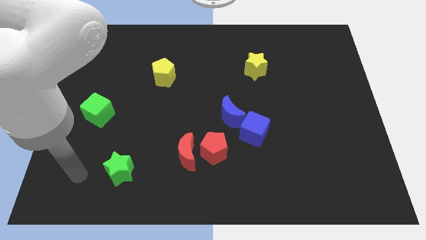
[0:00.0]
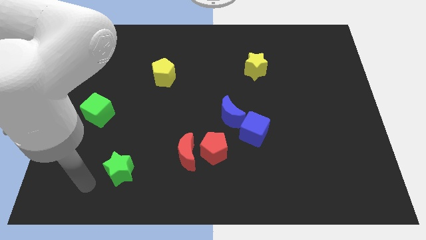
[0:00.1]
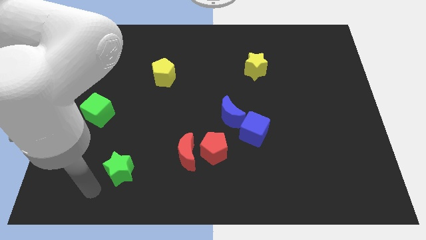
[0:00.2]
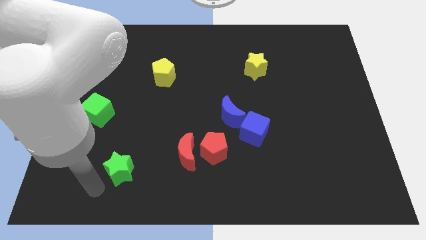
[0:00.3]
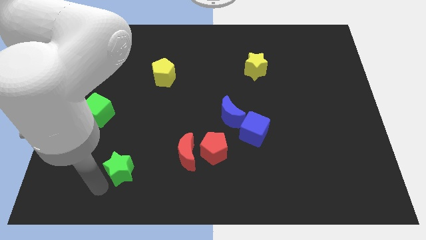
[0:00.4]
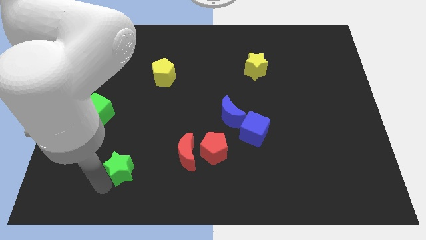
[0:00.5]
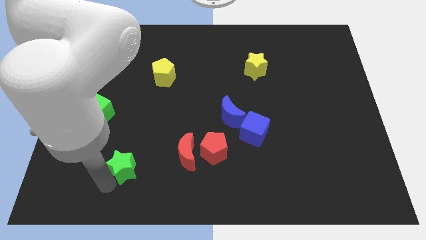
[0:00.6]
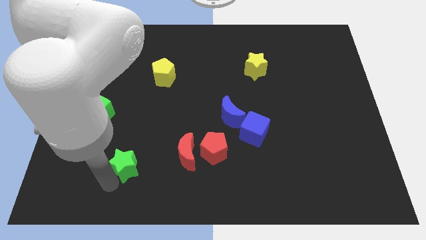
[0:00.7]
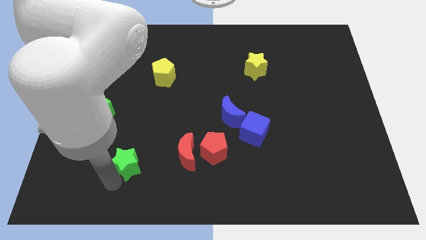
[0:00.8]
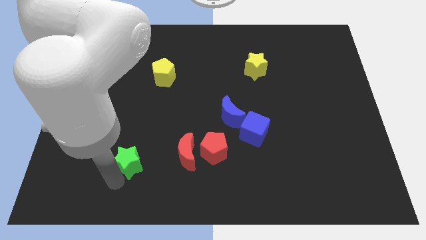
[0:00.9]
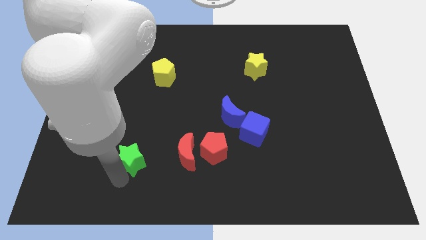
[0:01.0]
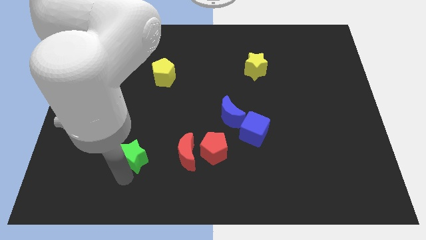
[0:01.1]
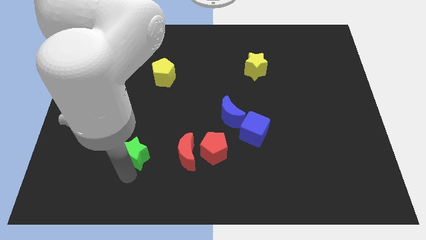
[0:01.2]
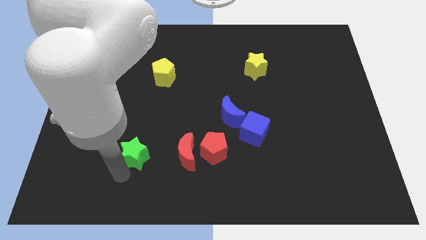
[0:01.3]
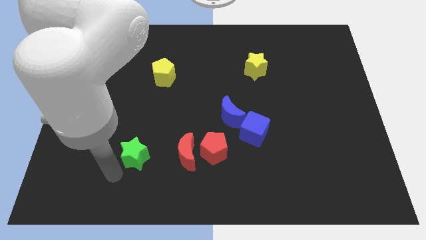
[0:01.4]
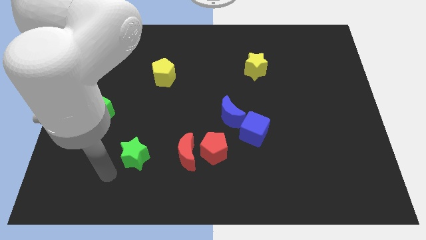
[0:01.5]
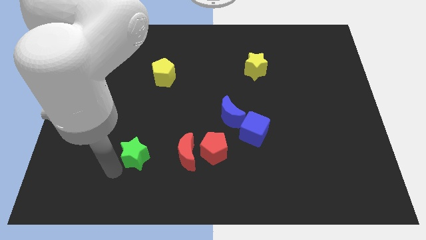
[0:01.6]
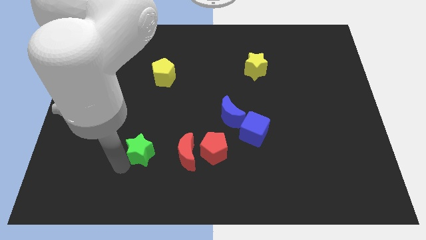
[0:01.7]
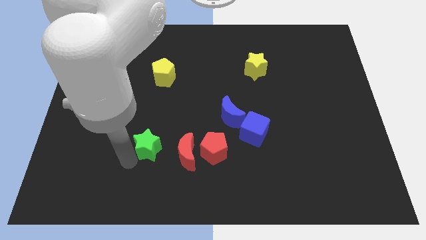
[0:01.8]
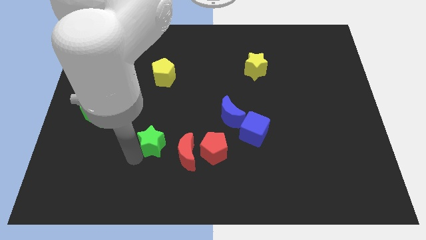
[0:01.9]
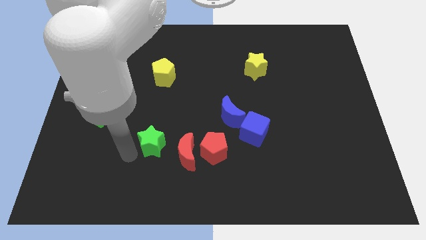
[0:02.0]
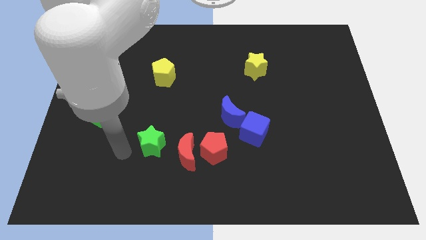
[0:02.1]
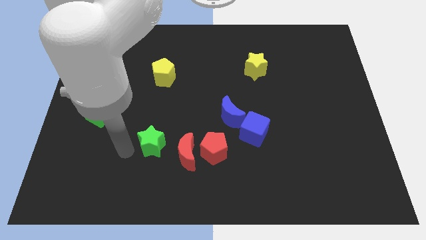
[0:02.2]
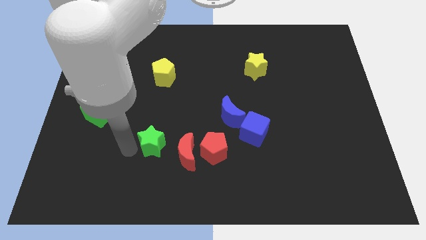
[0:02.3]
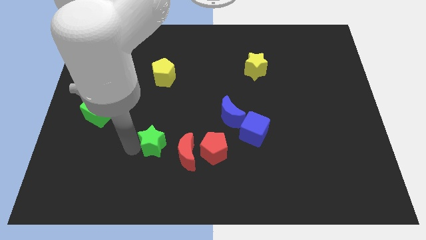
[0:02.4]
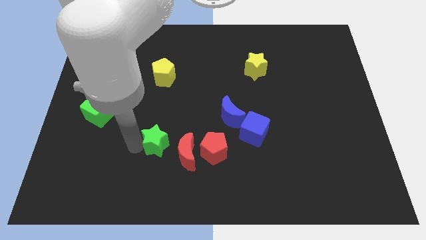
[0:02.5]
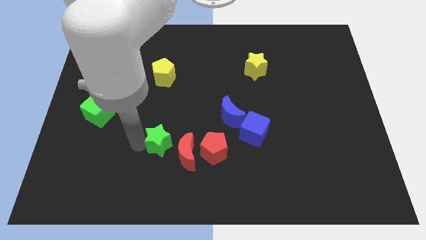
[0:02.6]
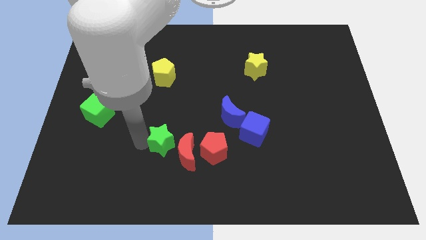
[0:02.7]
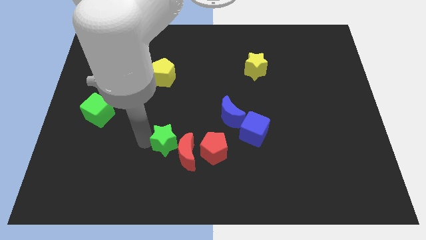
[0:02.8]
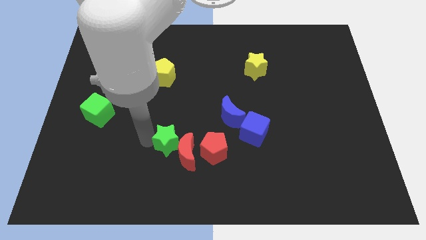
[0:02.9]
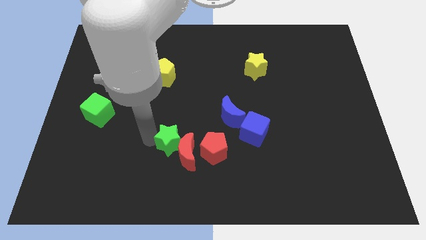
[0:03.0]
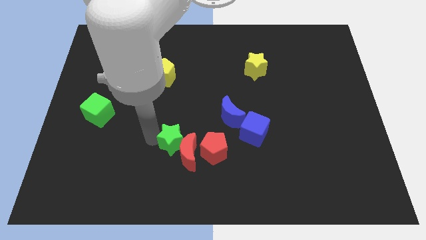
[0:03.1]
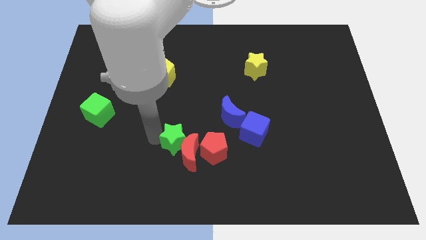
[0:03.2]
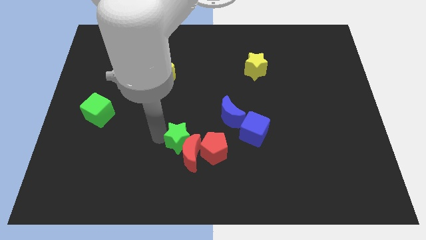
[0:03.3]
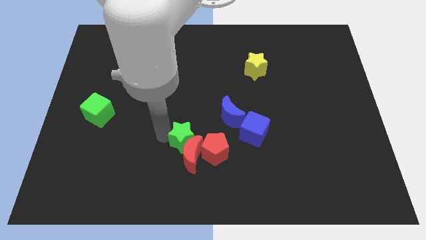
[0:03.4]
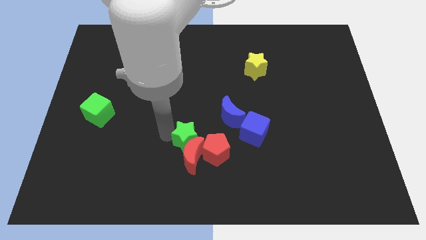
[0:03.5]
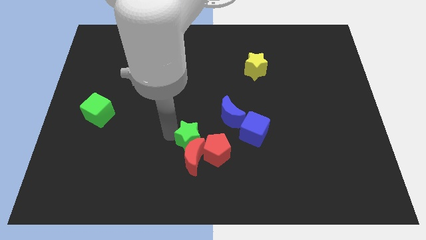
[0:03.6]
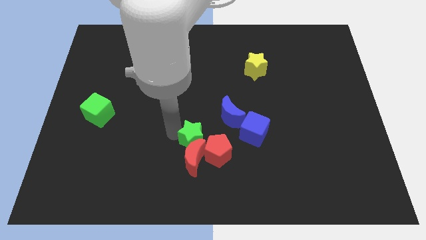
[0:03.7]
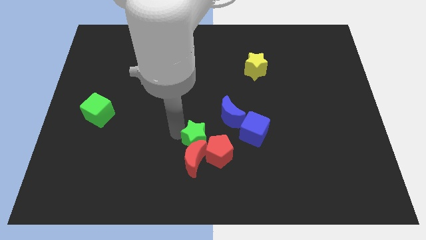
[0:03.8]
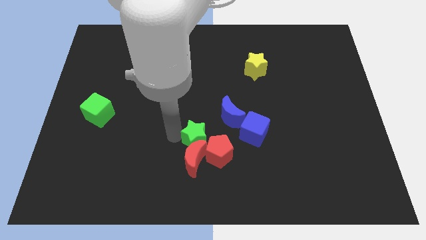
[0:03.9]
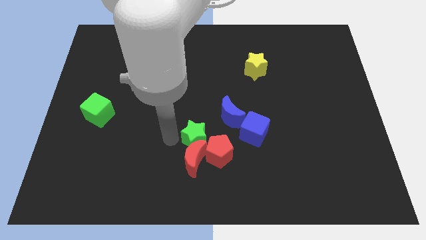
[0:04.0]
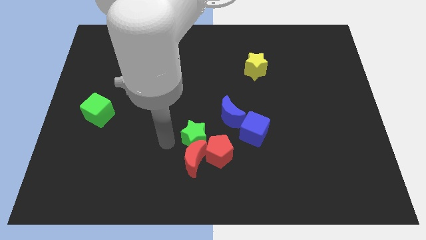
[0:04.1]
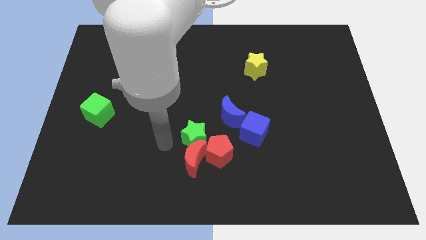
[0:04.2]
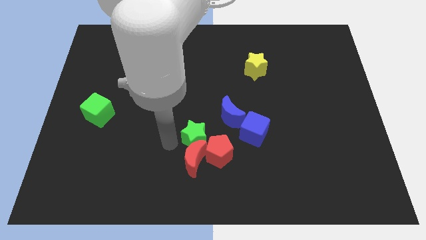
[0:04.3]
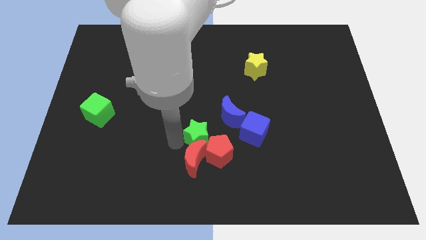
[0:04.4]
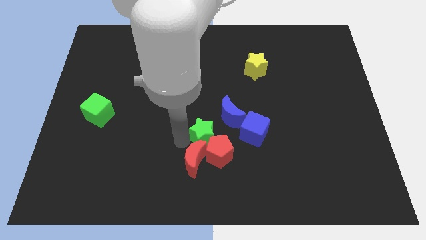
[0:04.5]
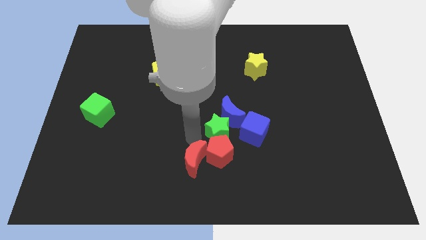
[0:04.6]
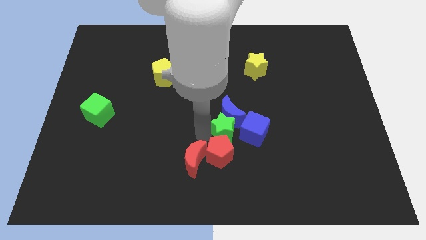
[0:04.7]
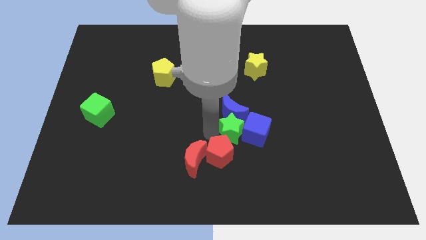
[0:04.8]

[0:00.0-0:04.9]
move the green star close to the blue cube

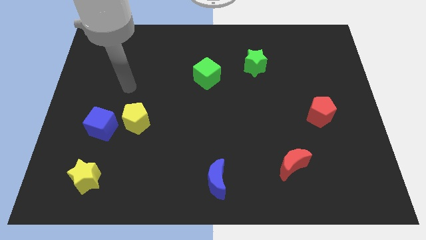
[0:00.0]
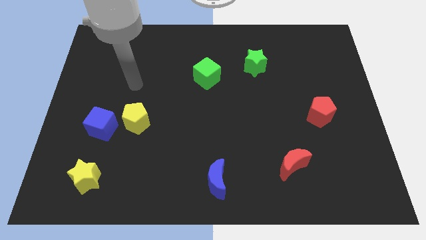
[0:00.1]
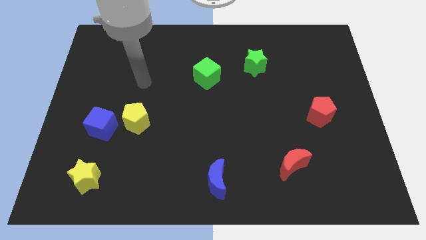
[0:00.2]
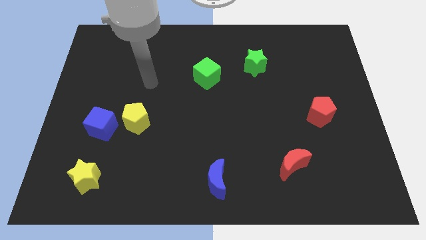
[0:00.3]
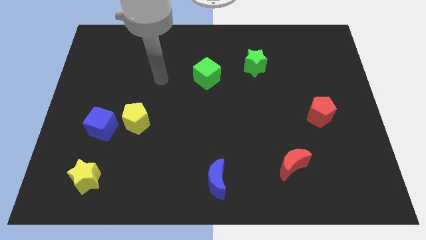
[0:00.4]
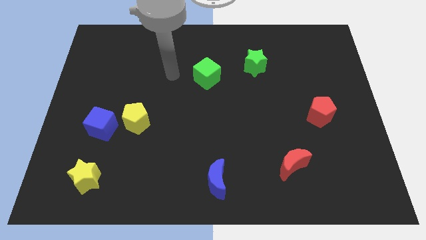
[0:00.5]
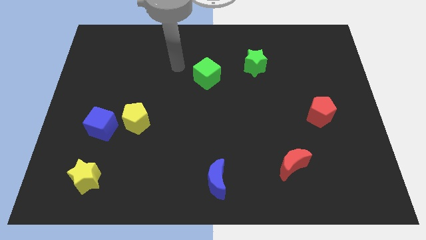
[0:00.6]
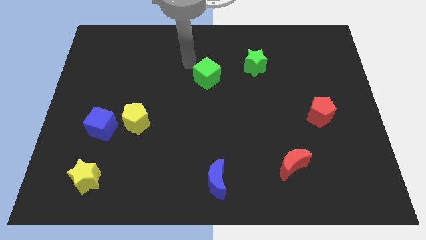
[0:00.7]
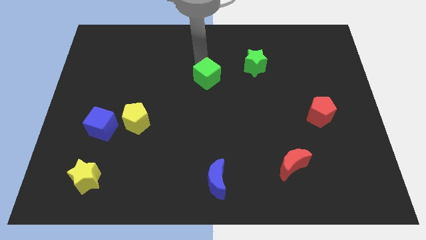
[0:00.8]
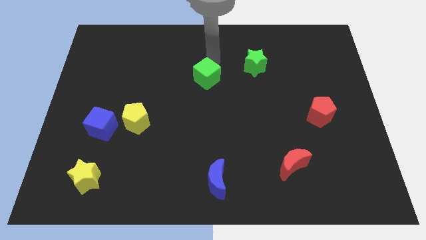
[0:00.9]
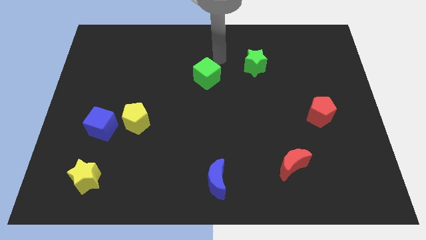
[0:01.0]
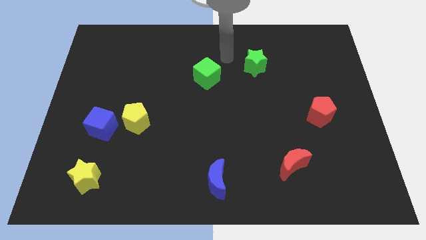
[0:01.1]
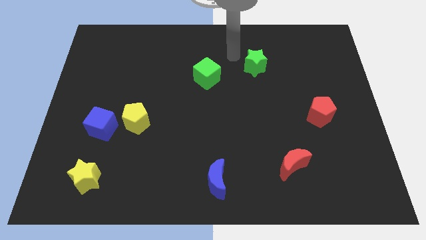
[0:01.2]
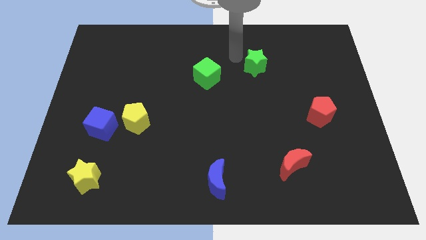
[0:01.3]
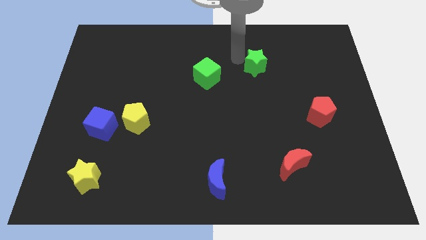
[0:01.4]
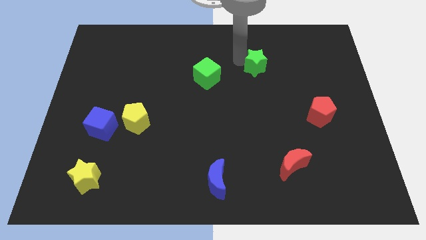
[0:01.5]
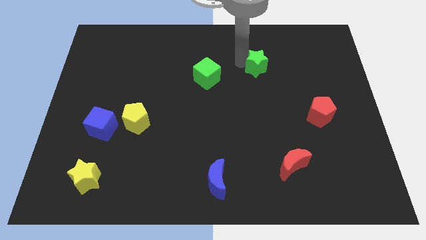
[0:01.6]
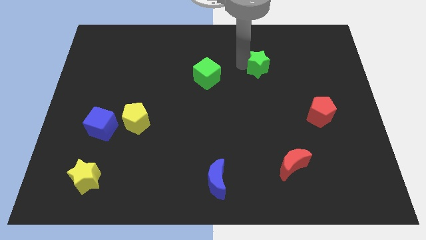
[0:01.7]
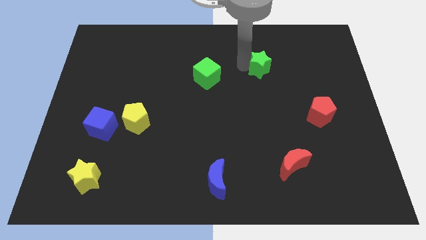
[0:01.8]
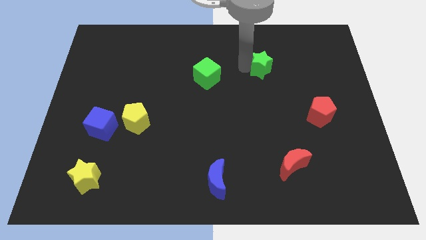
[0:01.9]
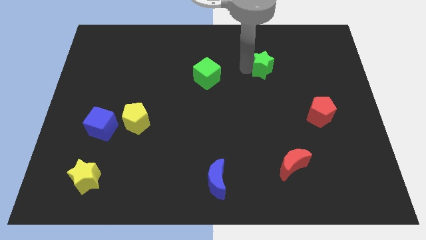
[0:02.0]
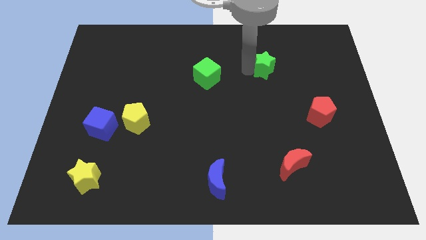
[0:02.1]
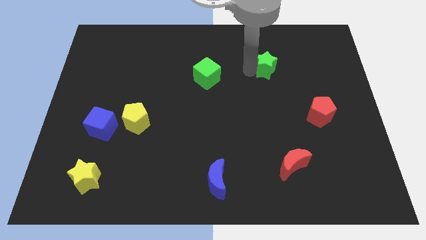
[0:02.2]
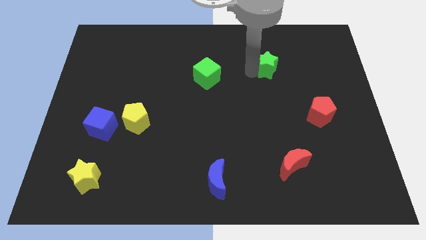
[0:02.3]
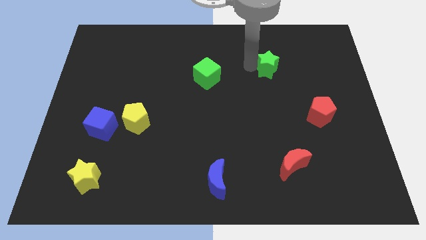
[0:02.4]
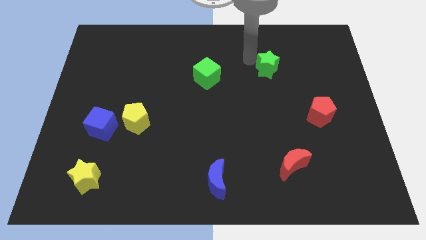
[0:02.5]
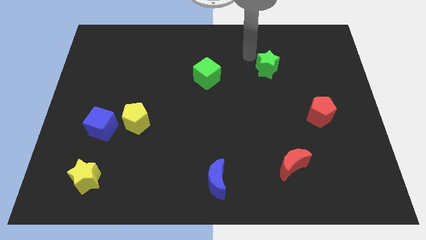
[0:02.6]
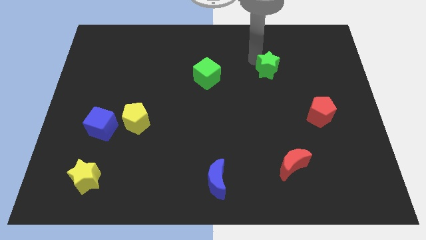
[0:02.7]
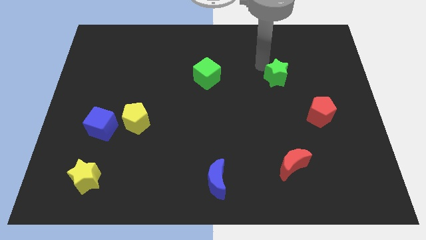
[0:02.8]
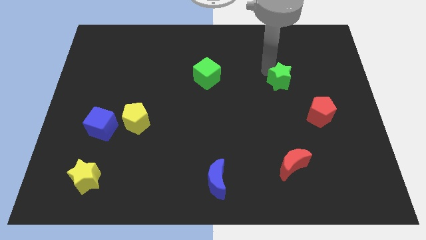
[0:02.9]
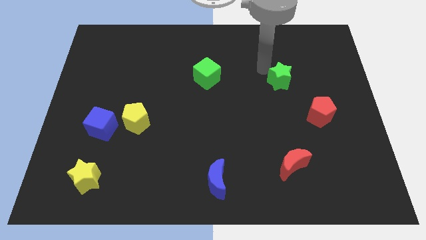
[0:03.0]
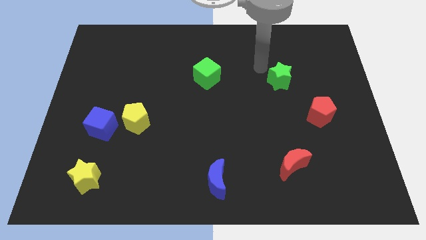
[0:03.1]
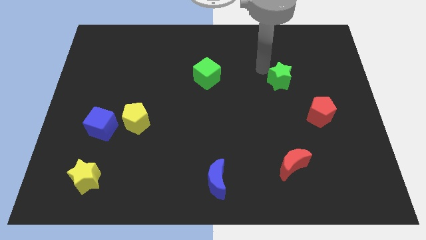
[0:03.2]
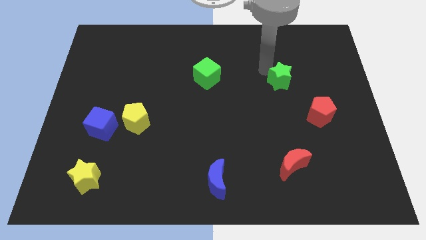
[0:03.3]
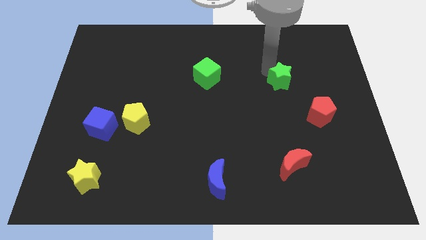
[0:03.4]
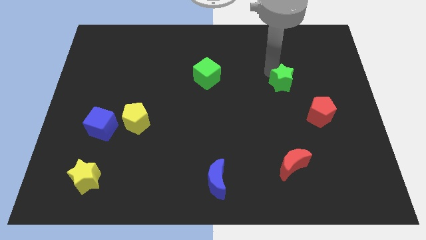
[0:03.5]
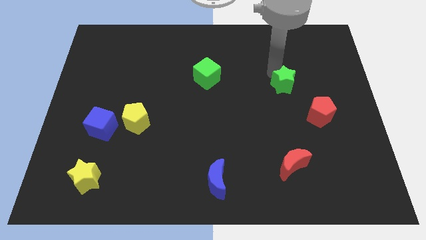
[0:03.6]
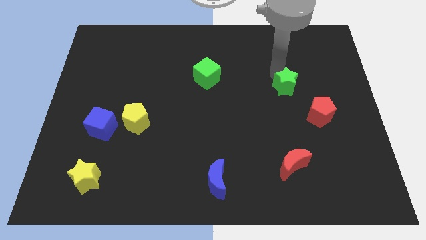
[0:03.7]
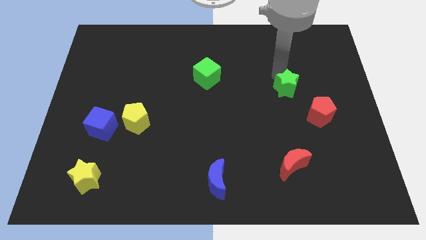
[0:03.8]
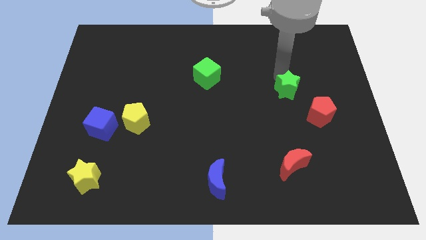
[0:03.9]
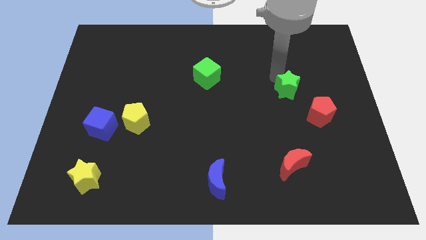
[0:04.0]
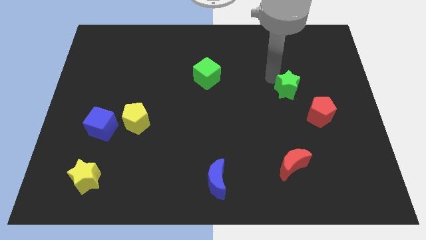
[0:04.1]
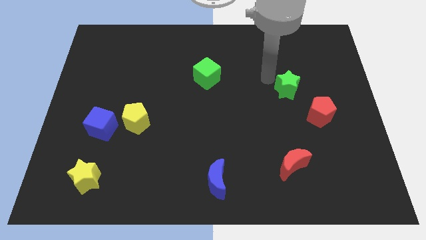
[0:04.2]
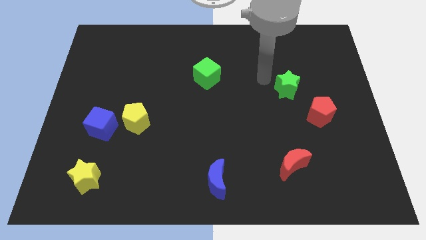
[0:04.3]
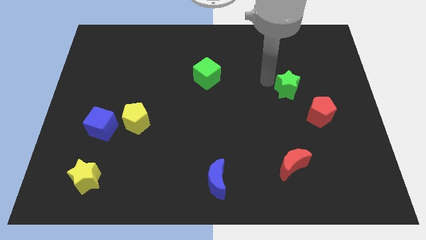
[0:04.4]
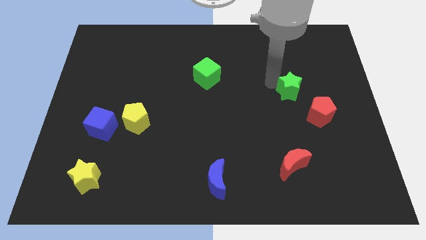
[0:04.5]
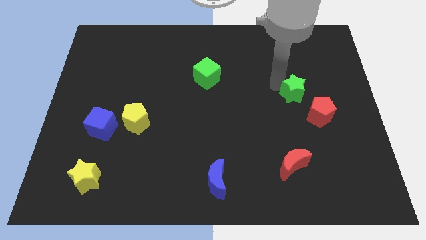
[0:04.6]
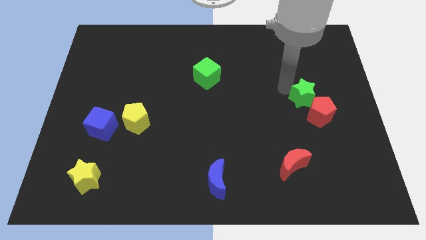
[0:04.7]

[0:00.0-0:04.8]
move the green star next to the red pentagon
